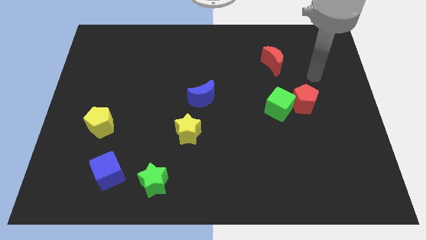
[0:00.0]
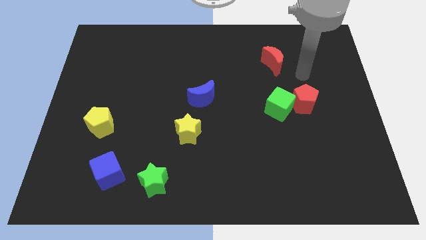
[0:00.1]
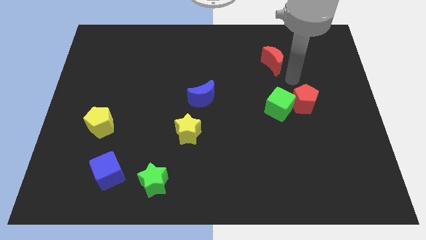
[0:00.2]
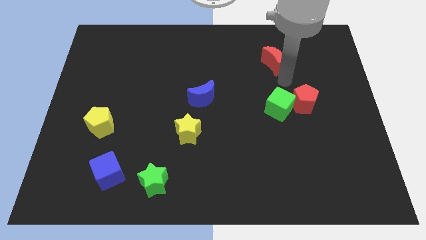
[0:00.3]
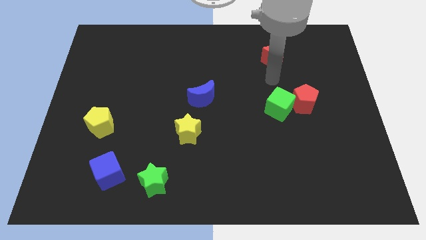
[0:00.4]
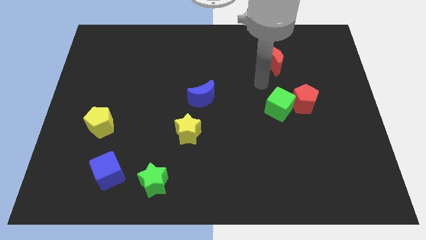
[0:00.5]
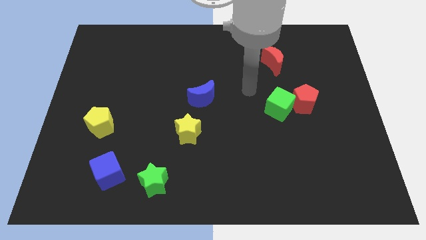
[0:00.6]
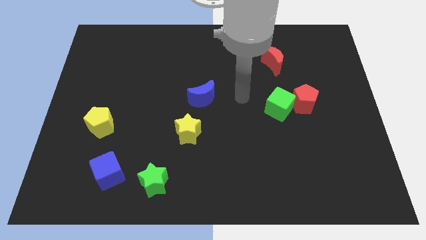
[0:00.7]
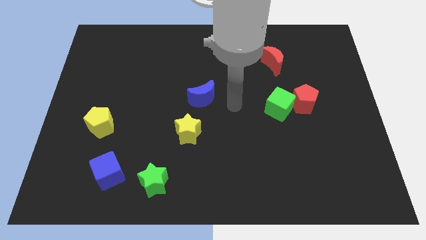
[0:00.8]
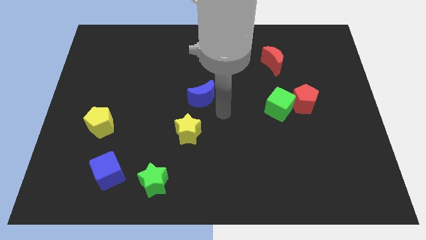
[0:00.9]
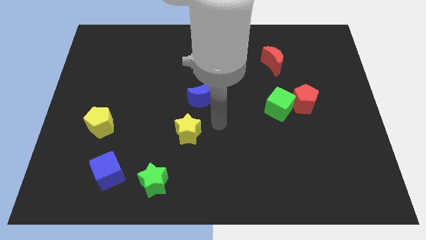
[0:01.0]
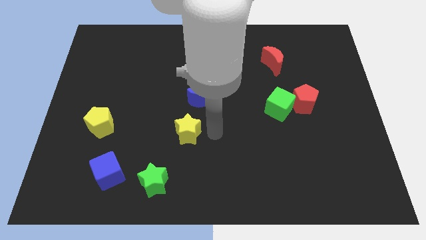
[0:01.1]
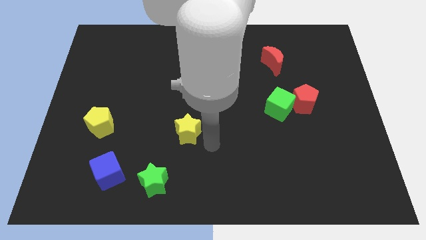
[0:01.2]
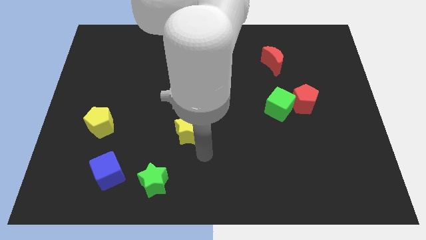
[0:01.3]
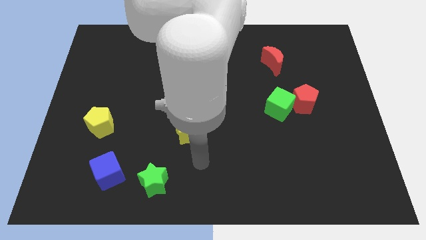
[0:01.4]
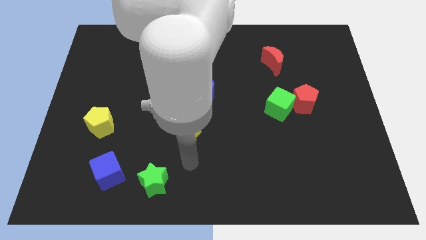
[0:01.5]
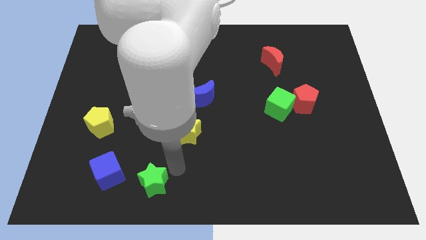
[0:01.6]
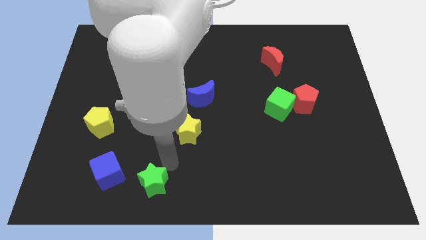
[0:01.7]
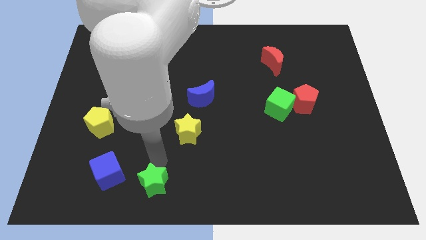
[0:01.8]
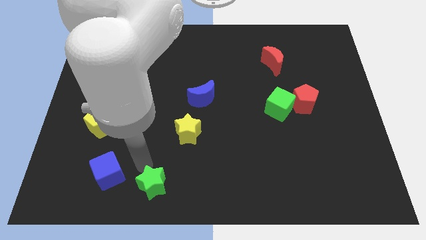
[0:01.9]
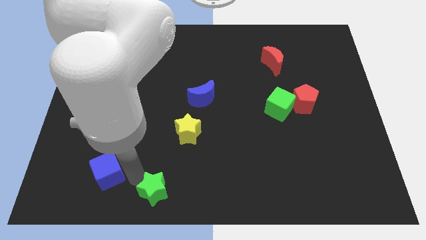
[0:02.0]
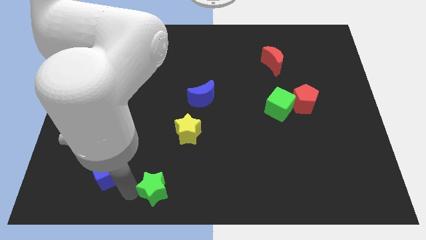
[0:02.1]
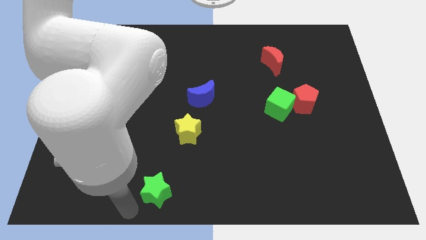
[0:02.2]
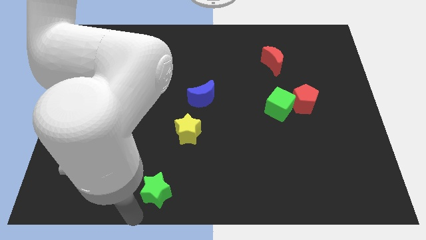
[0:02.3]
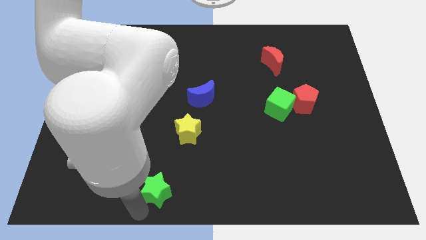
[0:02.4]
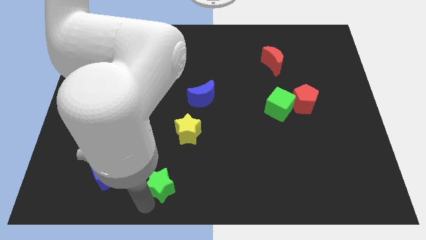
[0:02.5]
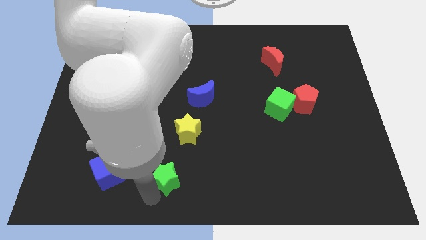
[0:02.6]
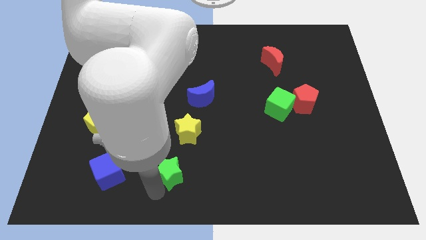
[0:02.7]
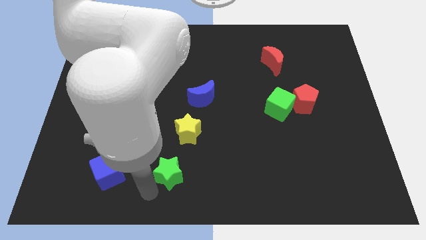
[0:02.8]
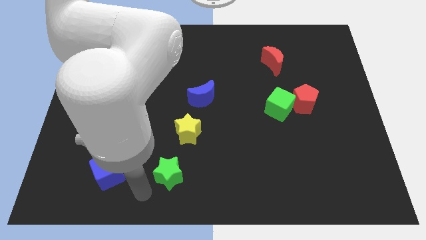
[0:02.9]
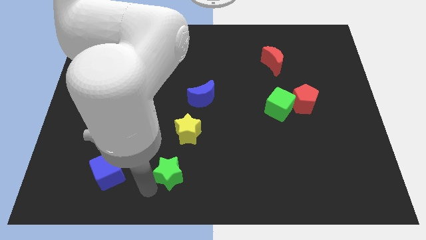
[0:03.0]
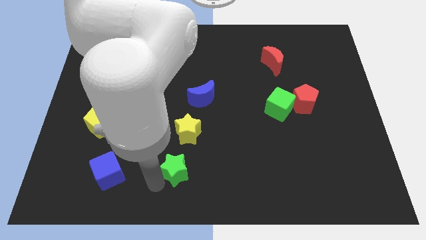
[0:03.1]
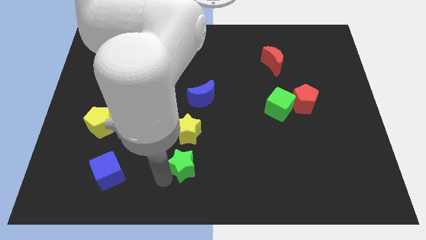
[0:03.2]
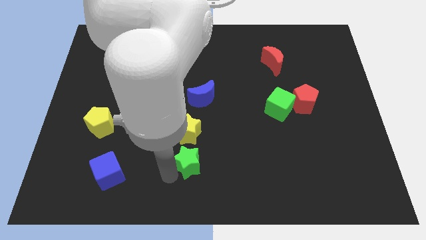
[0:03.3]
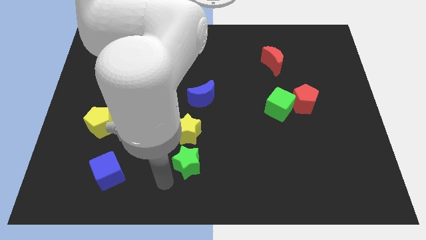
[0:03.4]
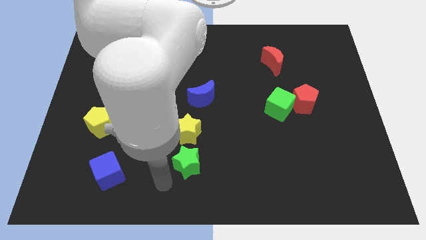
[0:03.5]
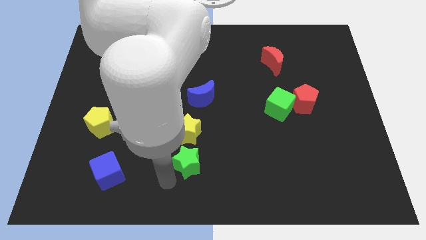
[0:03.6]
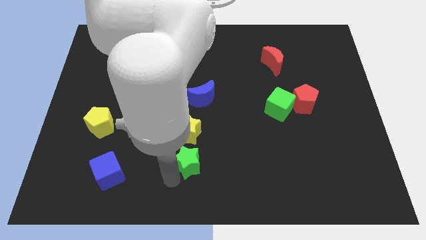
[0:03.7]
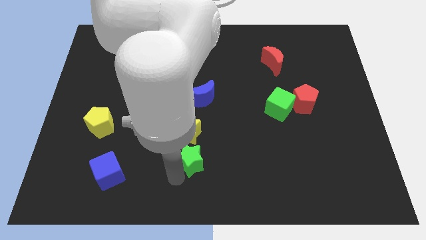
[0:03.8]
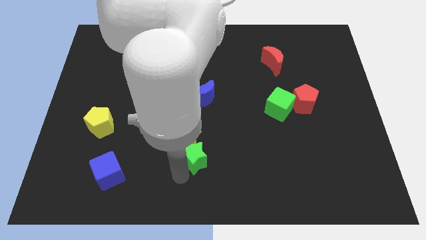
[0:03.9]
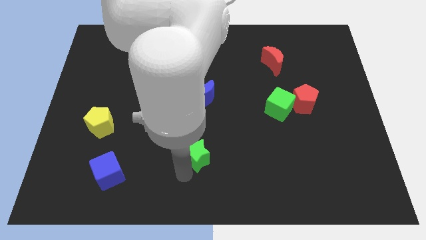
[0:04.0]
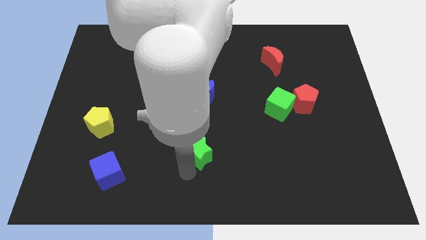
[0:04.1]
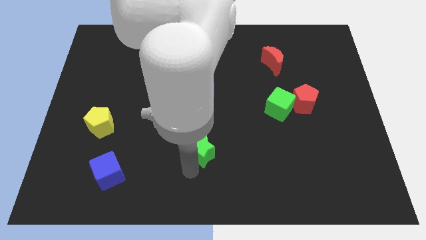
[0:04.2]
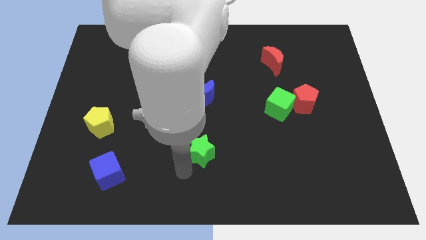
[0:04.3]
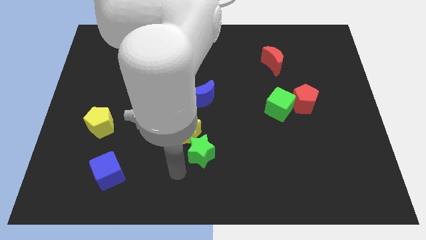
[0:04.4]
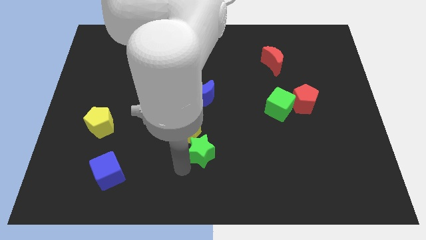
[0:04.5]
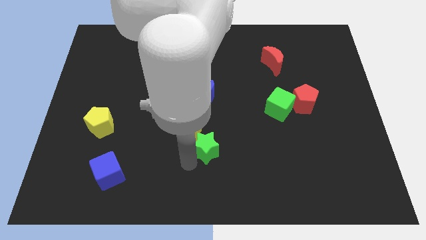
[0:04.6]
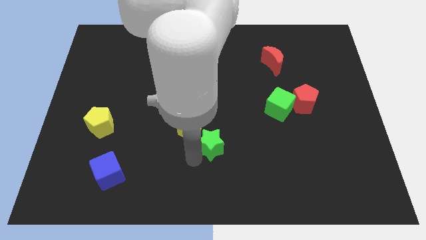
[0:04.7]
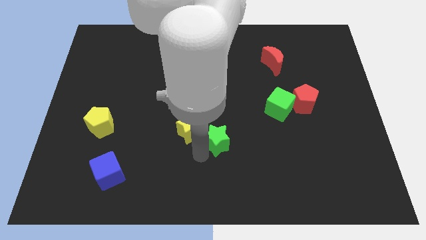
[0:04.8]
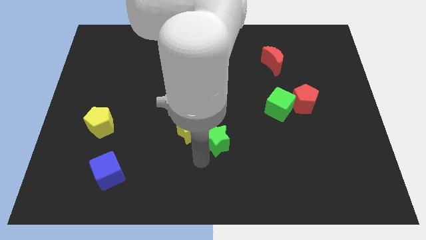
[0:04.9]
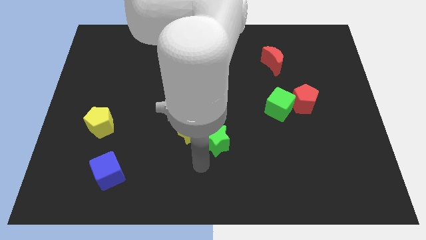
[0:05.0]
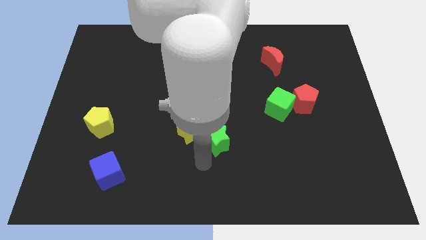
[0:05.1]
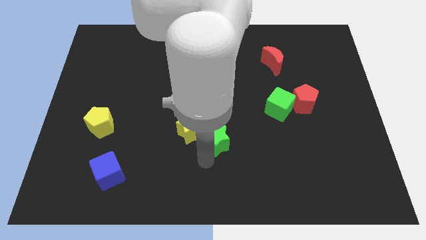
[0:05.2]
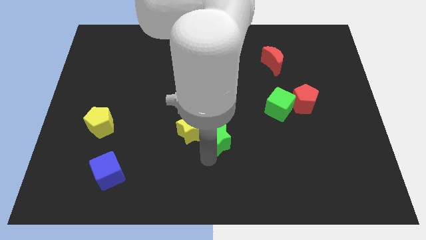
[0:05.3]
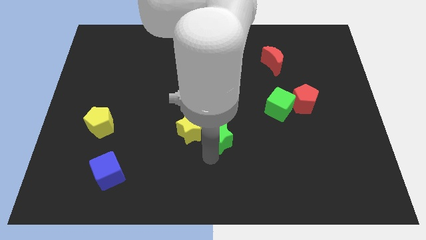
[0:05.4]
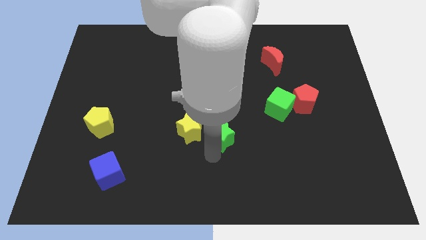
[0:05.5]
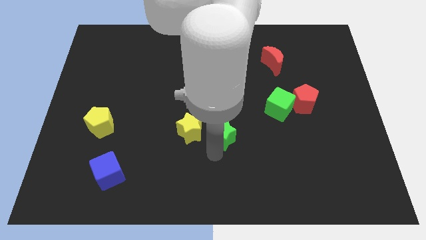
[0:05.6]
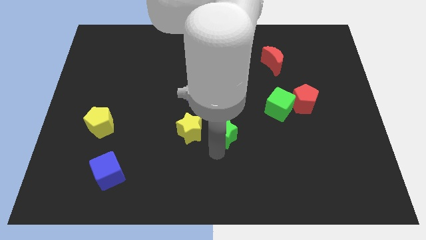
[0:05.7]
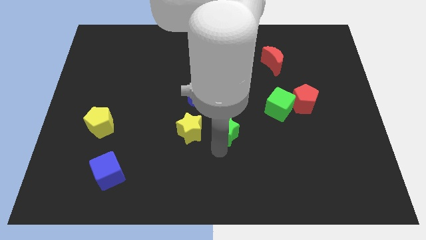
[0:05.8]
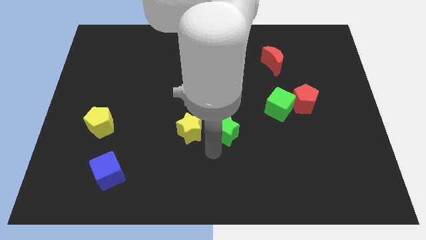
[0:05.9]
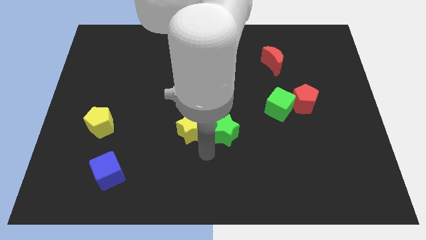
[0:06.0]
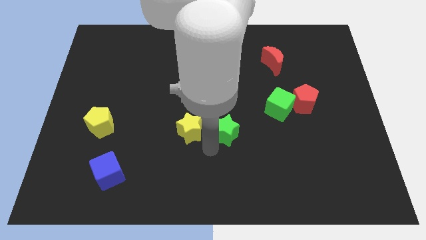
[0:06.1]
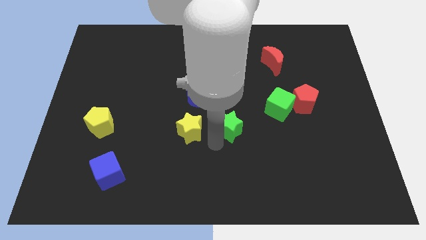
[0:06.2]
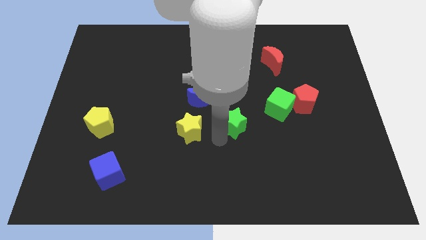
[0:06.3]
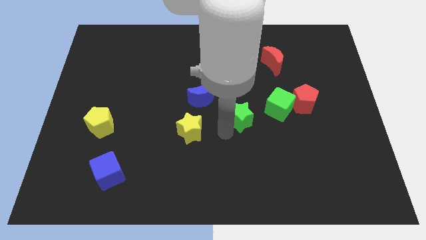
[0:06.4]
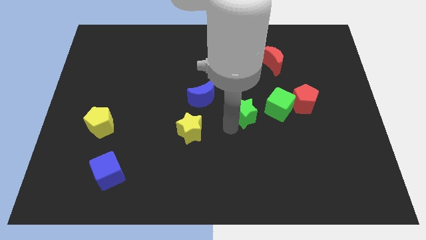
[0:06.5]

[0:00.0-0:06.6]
move the green star to the left side of the red pentagon
